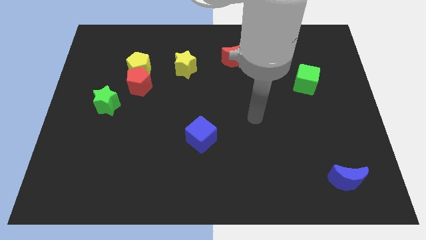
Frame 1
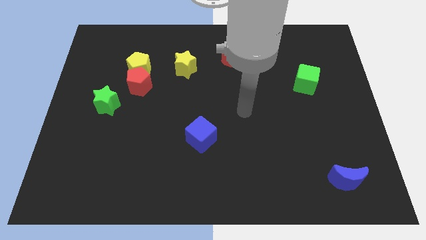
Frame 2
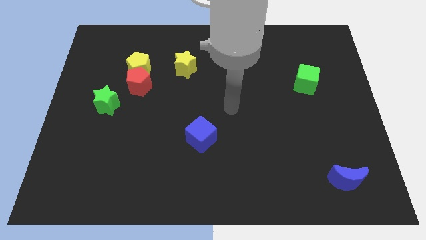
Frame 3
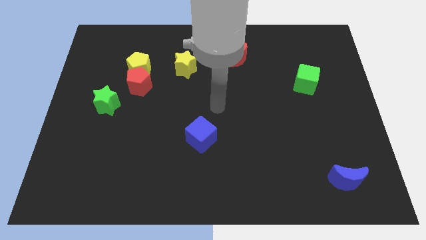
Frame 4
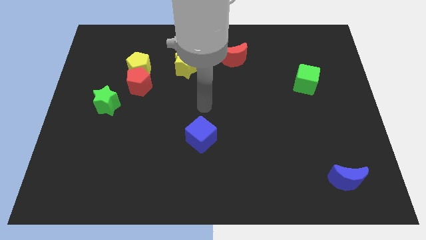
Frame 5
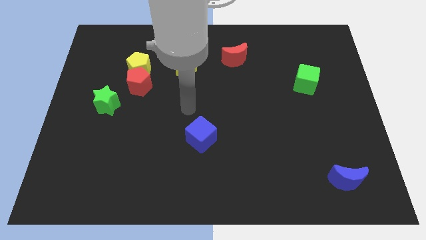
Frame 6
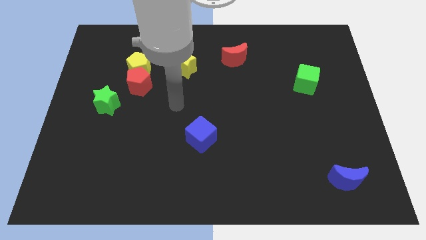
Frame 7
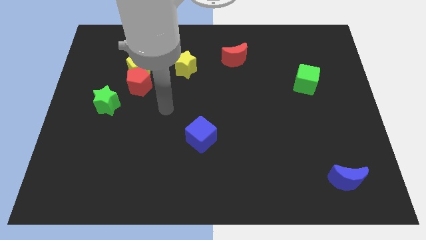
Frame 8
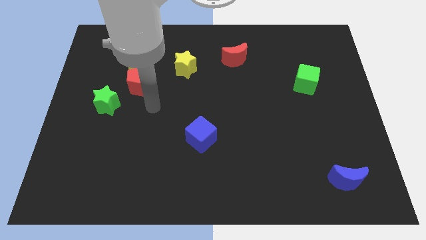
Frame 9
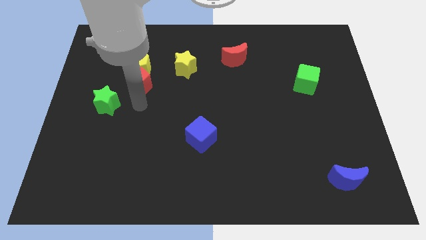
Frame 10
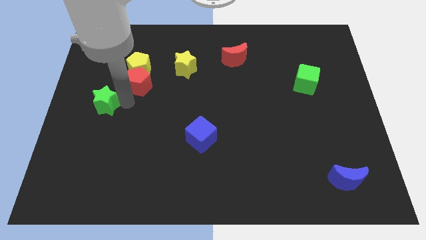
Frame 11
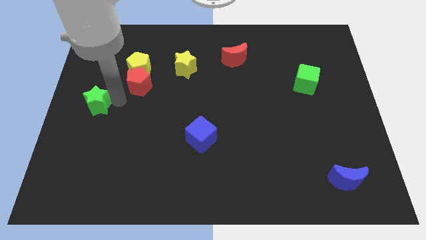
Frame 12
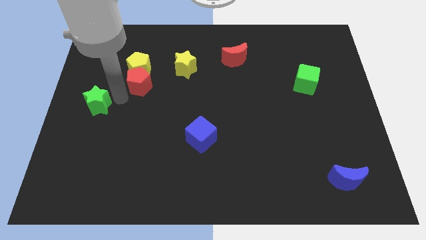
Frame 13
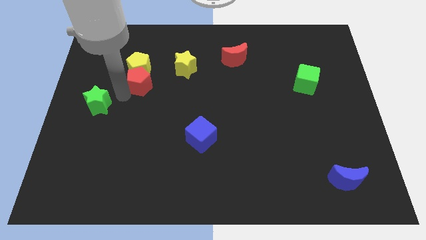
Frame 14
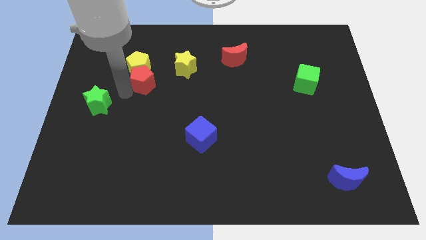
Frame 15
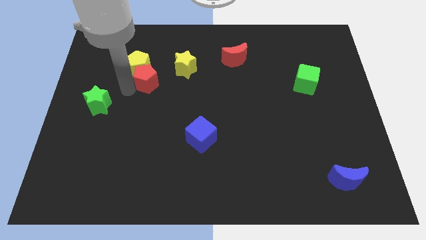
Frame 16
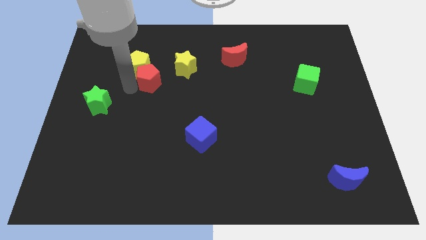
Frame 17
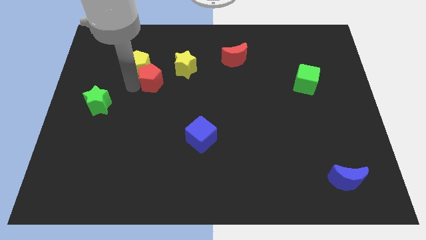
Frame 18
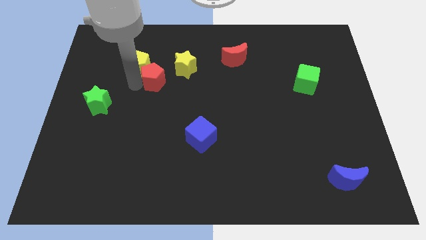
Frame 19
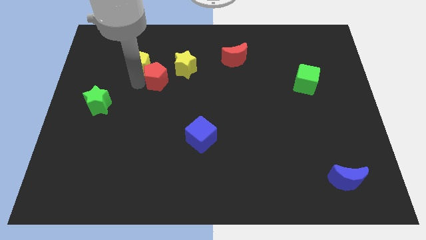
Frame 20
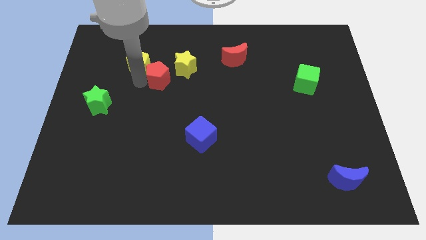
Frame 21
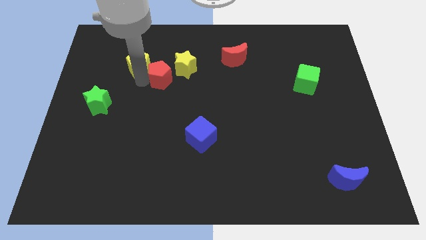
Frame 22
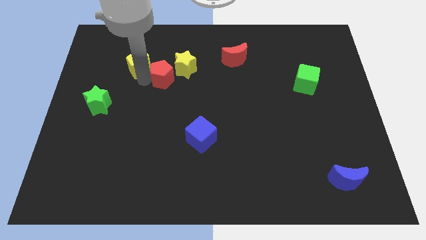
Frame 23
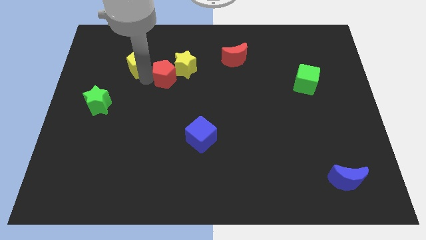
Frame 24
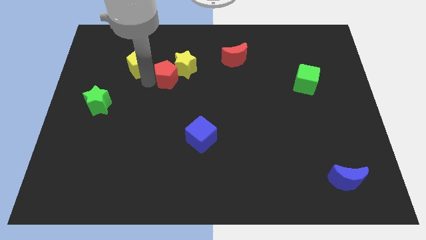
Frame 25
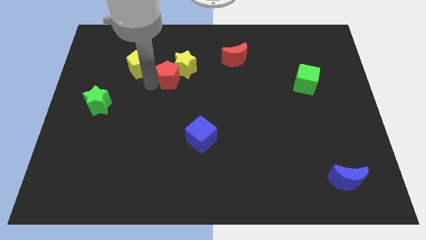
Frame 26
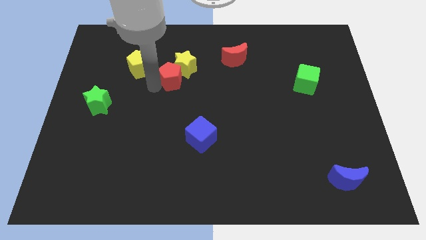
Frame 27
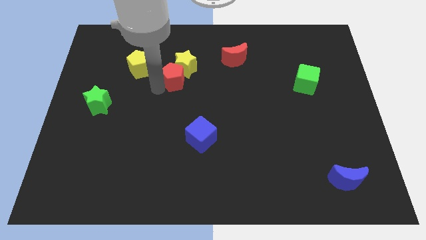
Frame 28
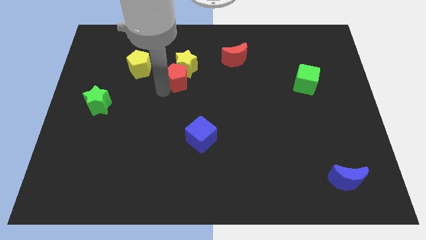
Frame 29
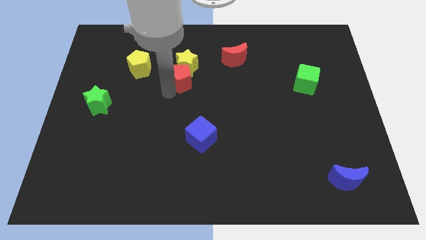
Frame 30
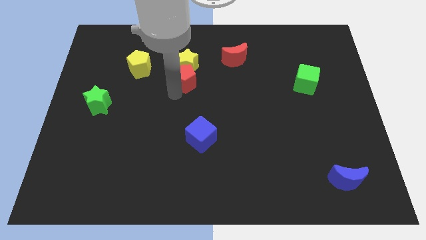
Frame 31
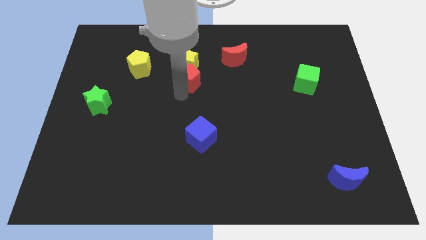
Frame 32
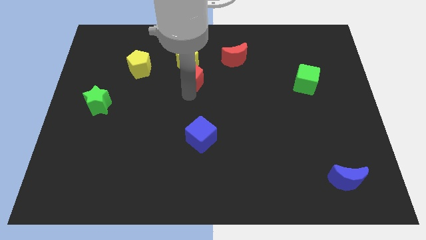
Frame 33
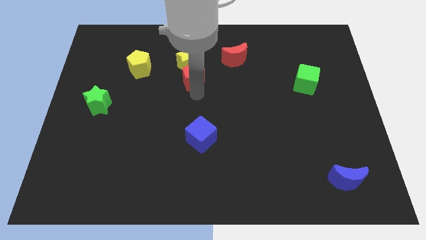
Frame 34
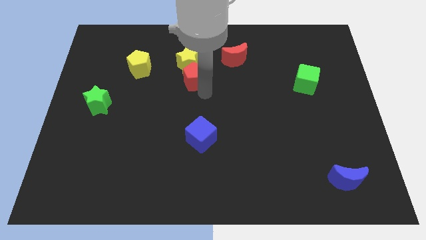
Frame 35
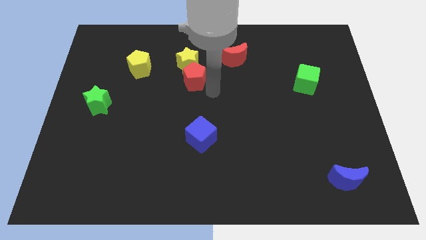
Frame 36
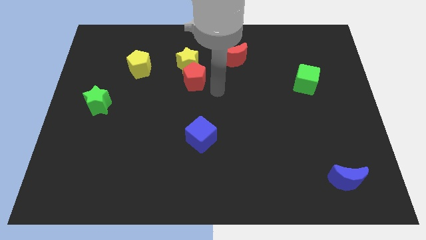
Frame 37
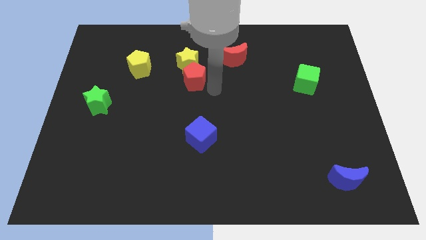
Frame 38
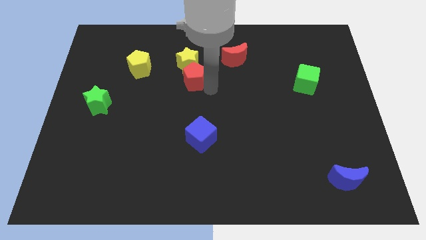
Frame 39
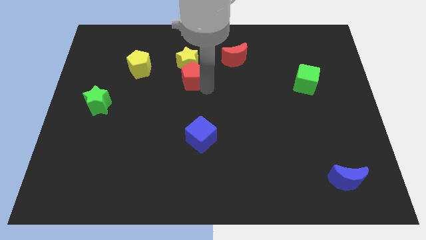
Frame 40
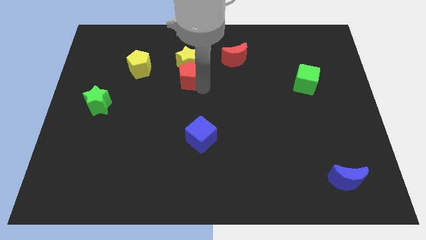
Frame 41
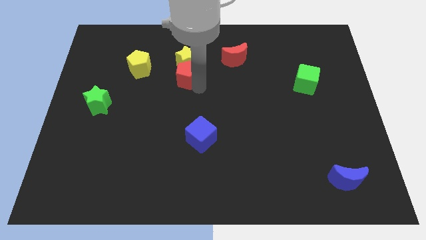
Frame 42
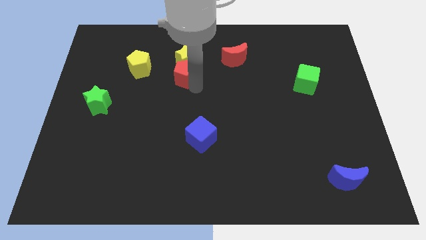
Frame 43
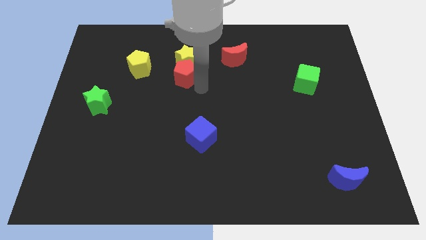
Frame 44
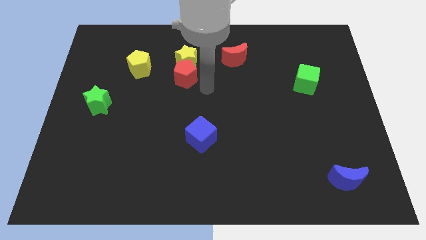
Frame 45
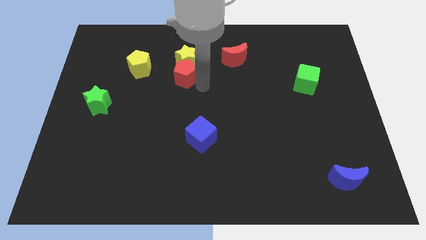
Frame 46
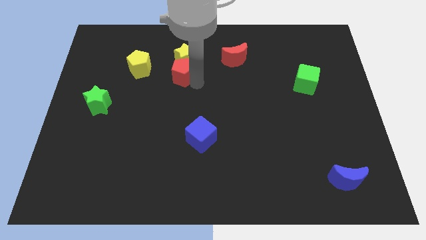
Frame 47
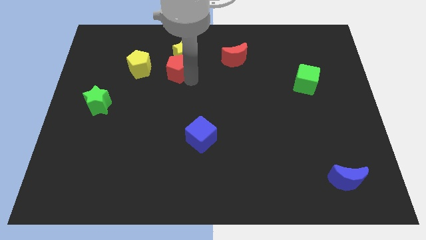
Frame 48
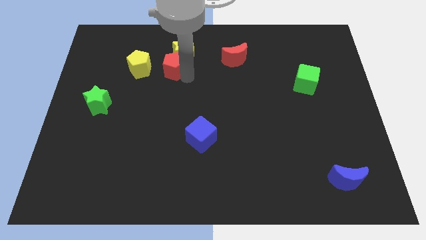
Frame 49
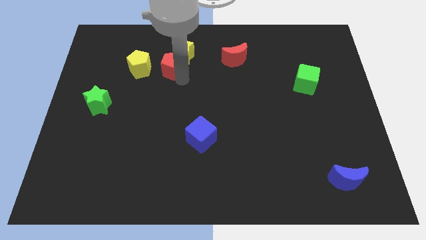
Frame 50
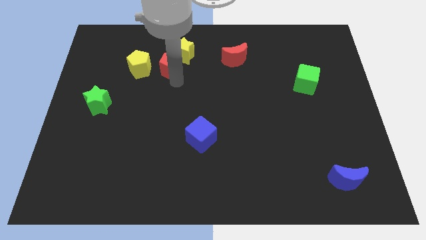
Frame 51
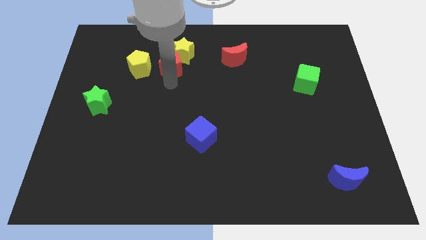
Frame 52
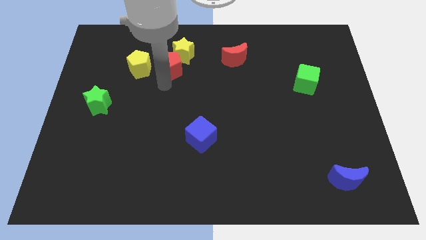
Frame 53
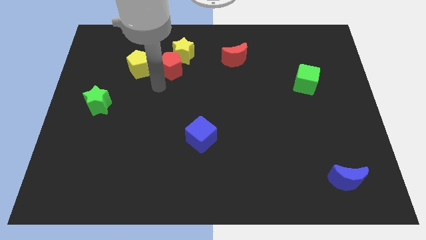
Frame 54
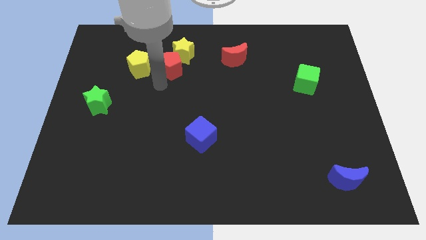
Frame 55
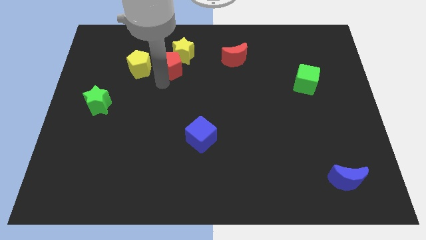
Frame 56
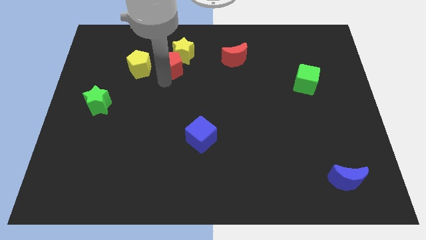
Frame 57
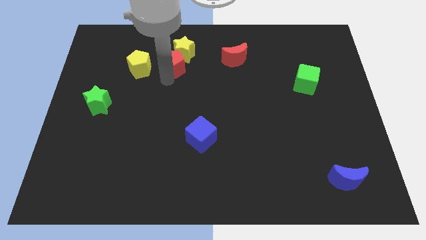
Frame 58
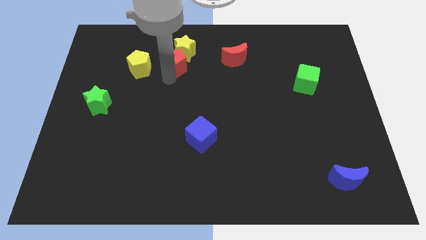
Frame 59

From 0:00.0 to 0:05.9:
slide the red pentagon left of the red moon

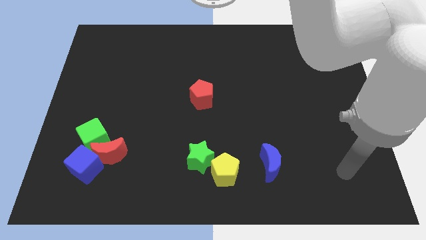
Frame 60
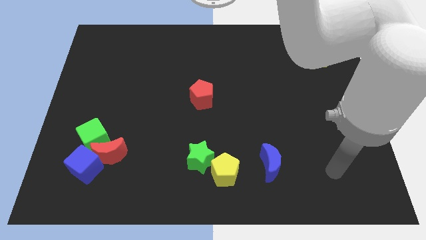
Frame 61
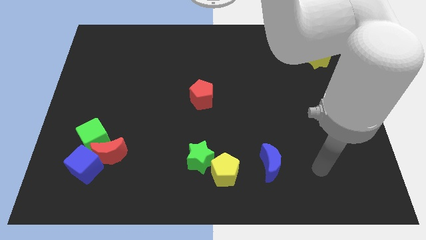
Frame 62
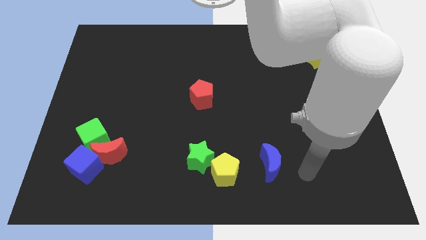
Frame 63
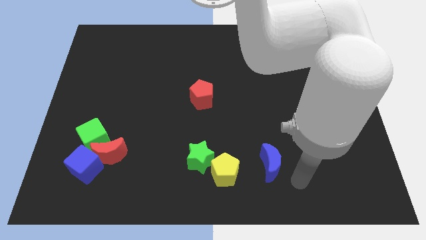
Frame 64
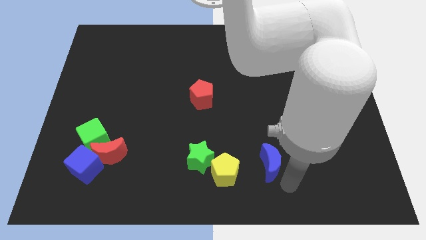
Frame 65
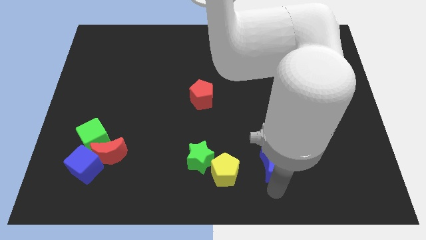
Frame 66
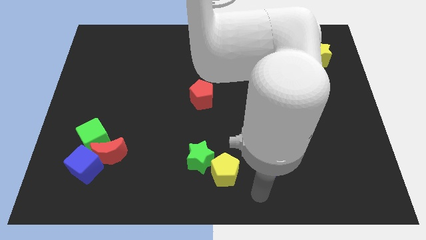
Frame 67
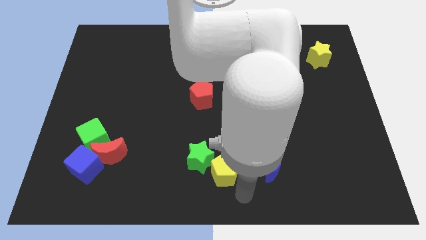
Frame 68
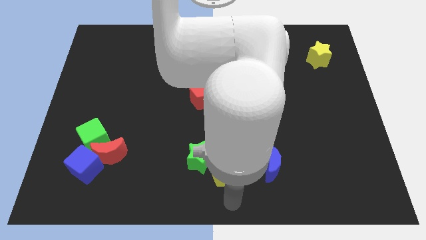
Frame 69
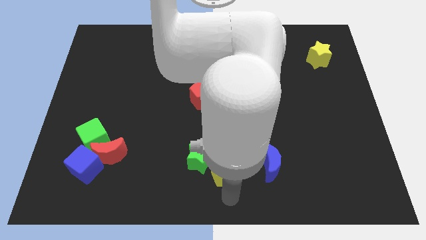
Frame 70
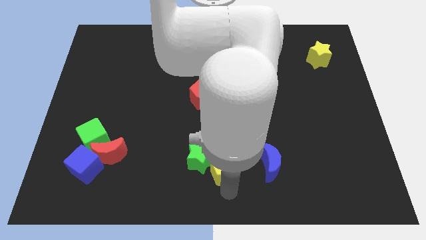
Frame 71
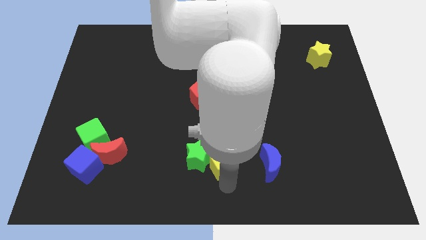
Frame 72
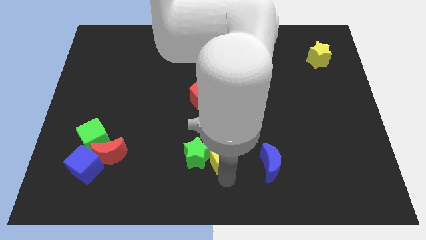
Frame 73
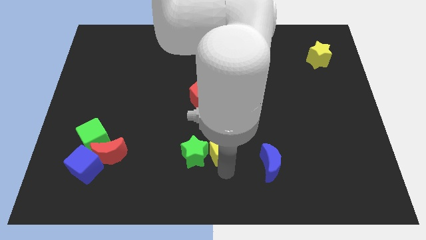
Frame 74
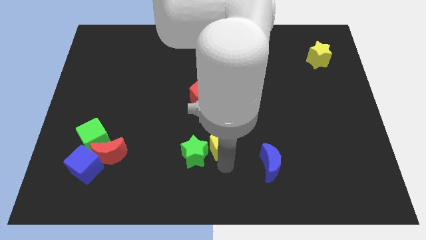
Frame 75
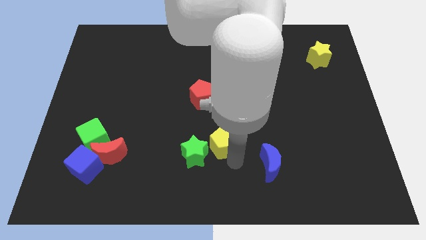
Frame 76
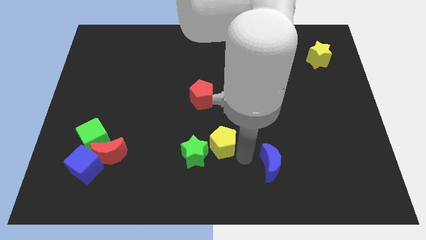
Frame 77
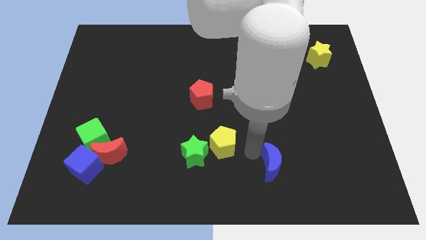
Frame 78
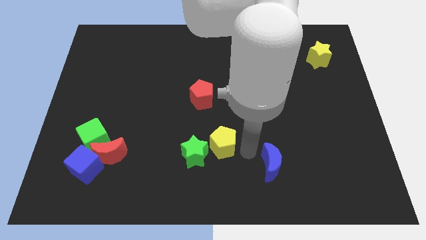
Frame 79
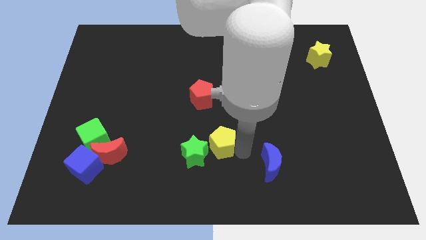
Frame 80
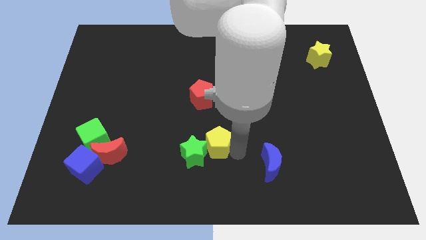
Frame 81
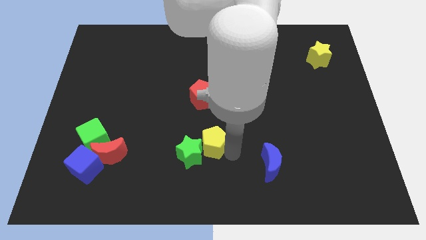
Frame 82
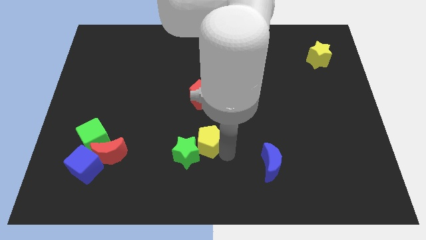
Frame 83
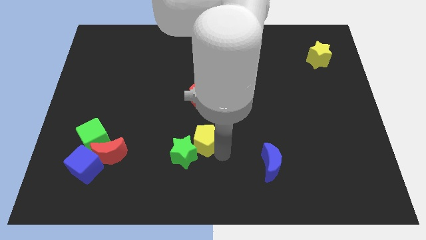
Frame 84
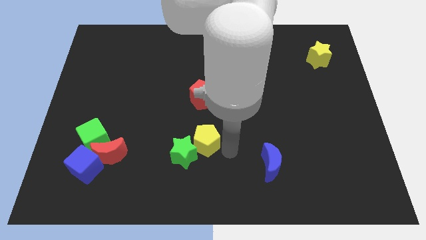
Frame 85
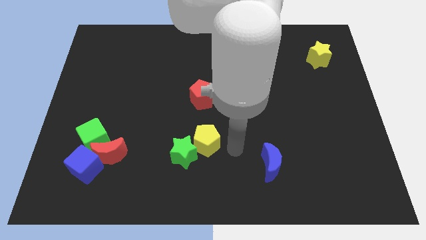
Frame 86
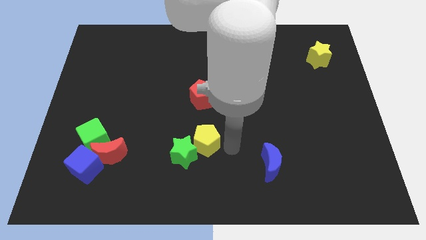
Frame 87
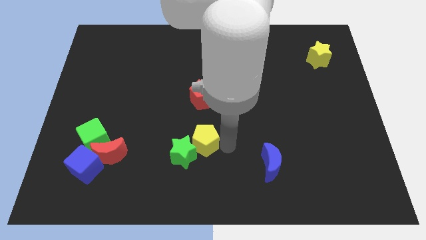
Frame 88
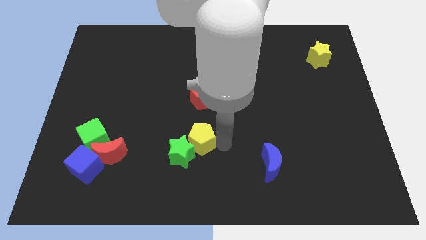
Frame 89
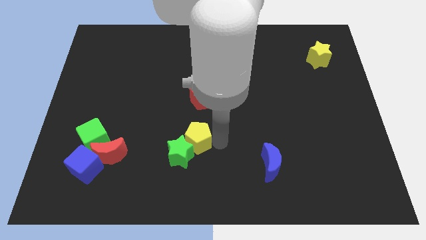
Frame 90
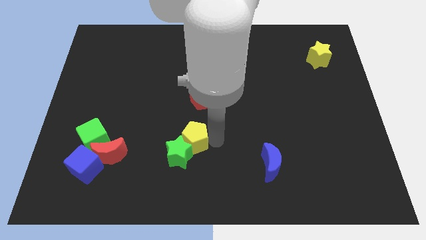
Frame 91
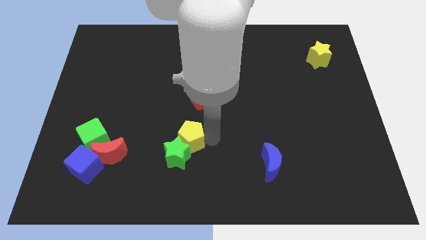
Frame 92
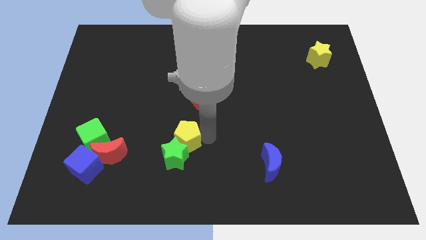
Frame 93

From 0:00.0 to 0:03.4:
push the yellow pentagon diagonally up and to the left of the green star
